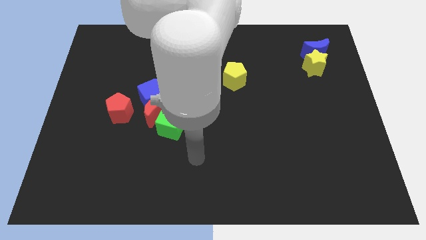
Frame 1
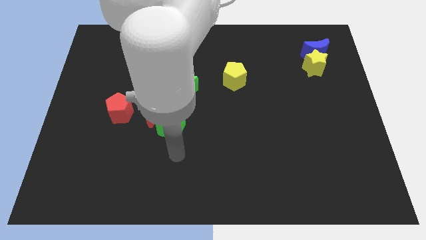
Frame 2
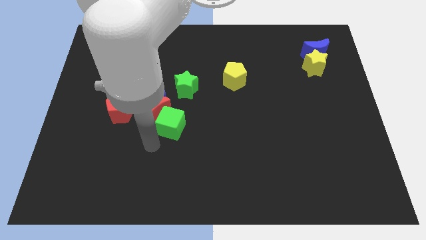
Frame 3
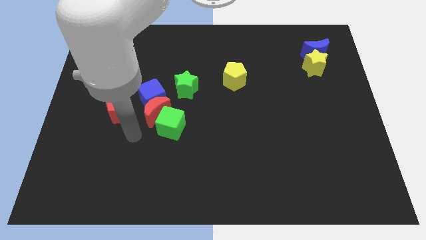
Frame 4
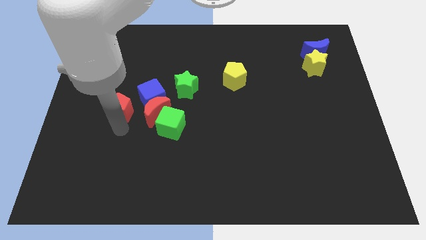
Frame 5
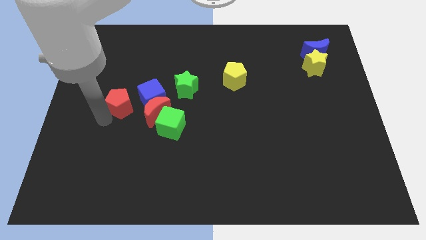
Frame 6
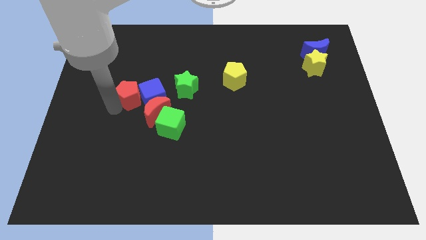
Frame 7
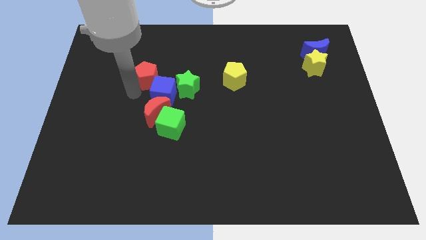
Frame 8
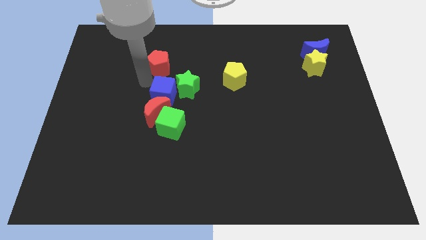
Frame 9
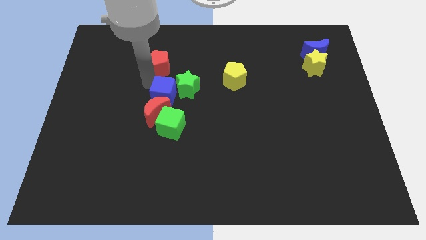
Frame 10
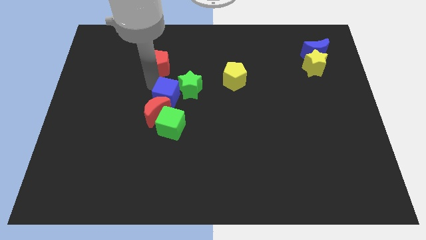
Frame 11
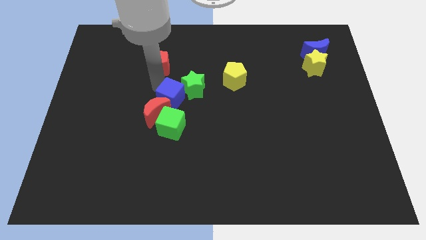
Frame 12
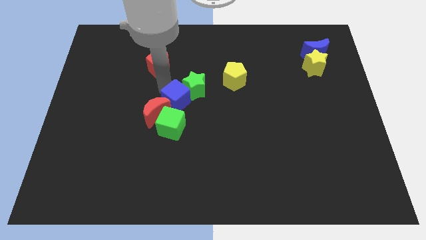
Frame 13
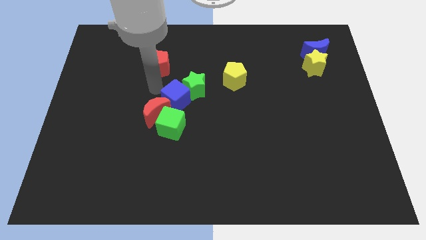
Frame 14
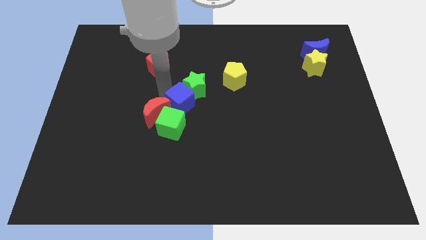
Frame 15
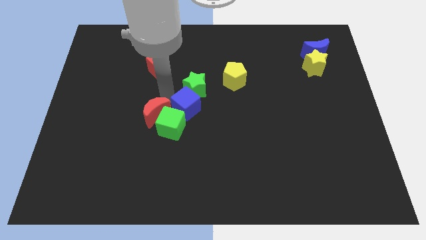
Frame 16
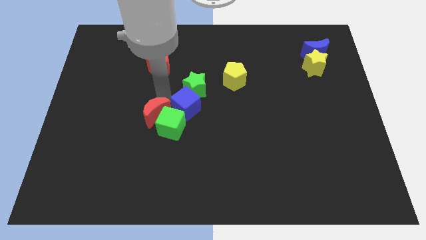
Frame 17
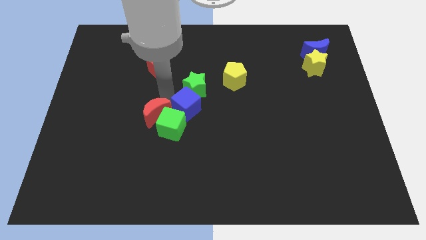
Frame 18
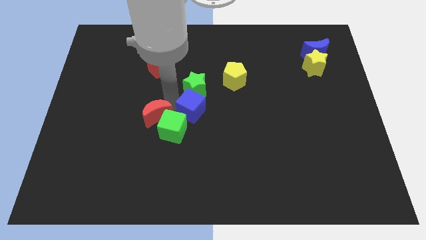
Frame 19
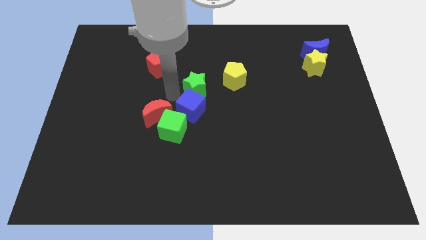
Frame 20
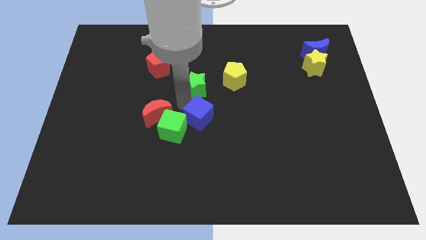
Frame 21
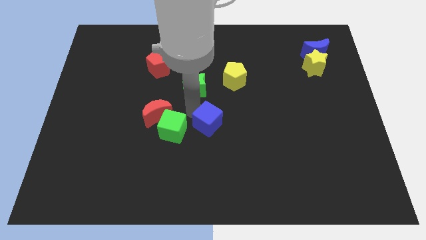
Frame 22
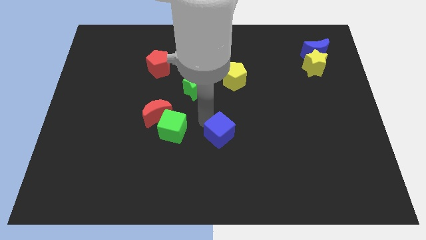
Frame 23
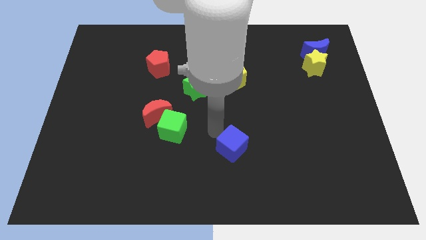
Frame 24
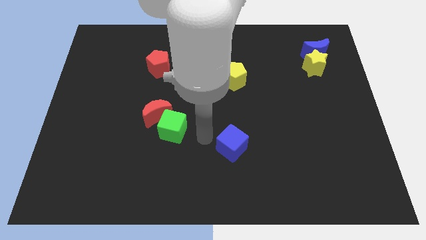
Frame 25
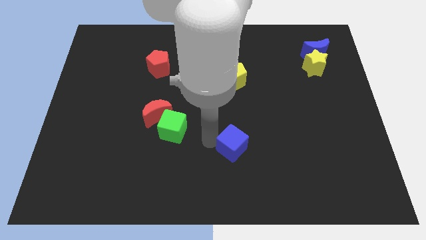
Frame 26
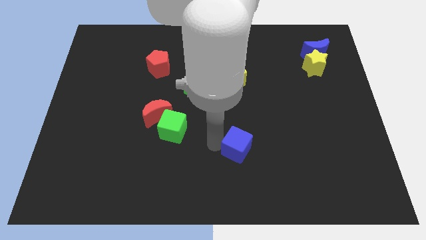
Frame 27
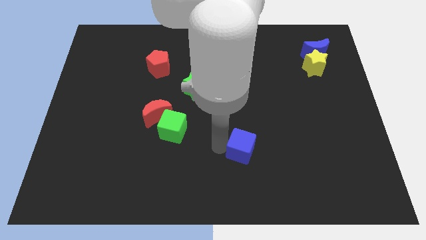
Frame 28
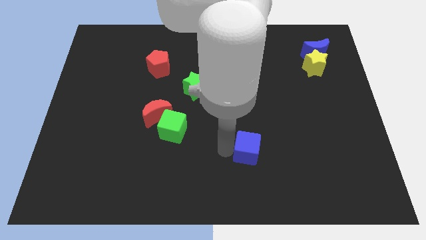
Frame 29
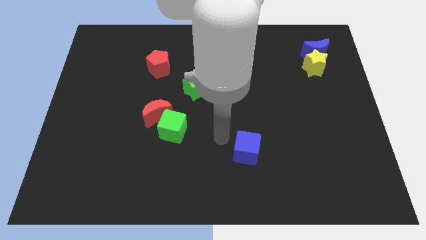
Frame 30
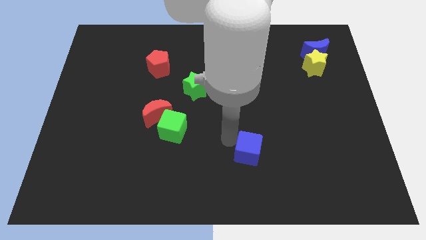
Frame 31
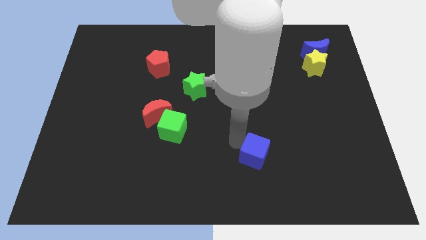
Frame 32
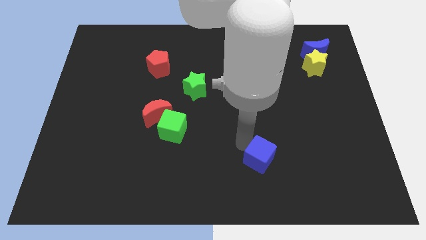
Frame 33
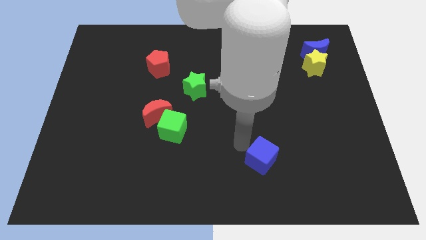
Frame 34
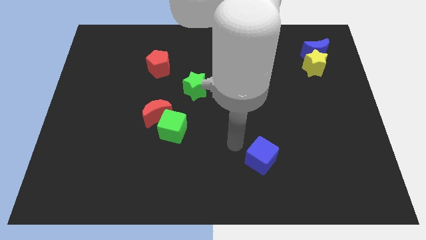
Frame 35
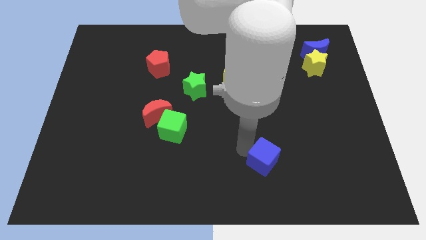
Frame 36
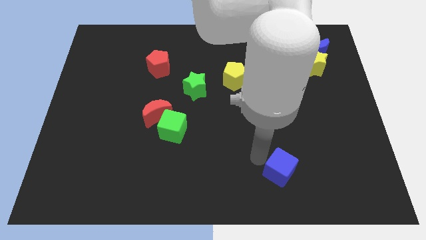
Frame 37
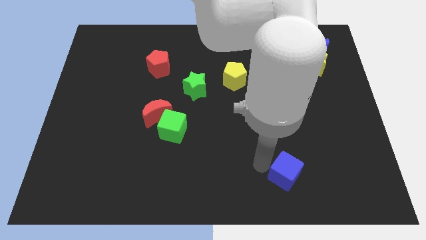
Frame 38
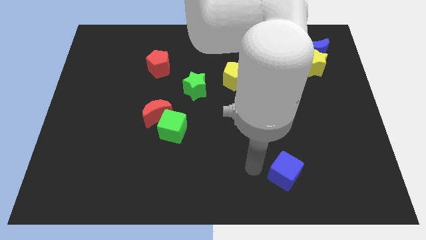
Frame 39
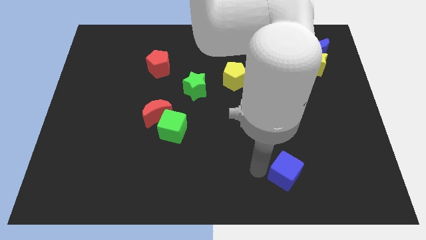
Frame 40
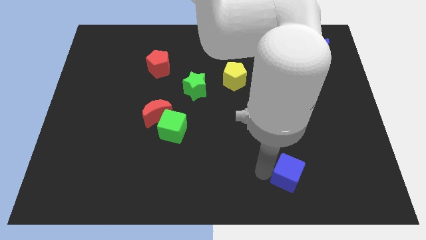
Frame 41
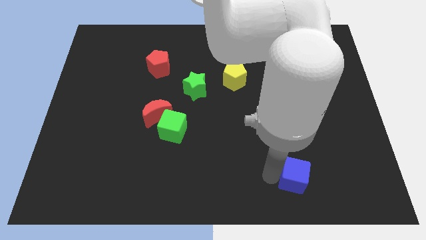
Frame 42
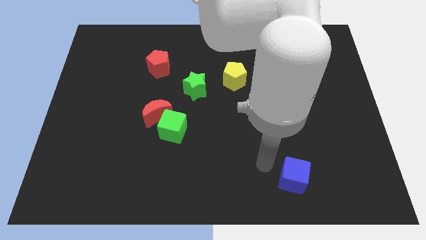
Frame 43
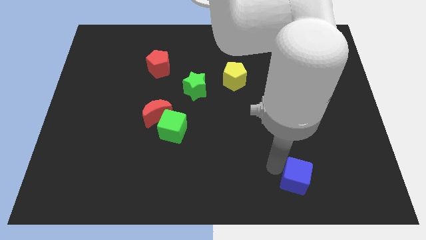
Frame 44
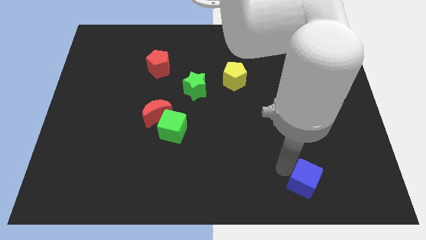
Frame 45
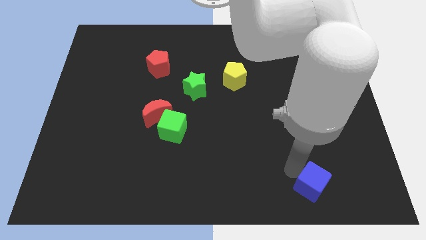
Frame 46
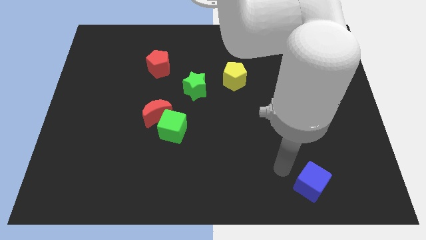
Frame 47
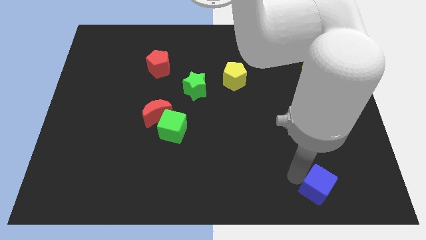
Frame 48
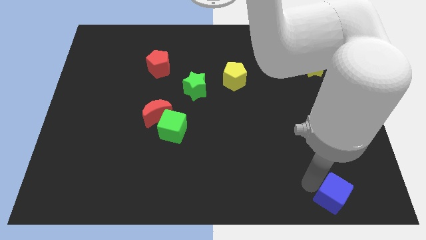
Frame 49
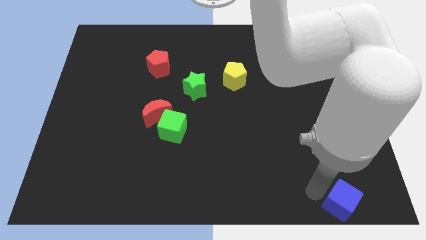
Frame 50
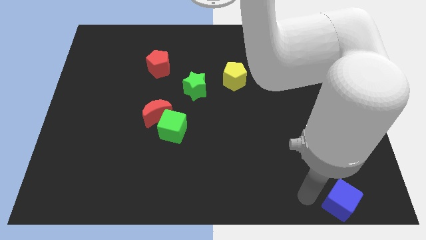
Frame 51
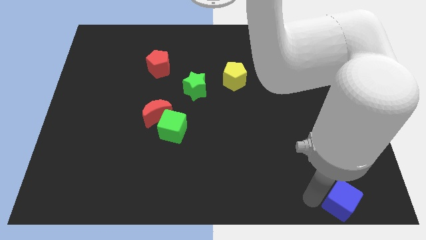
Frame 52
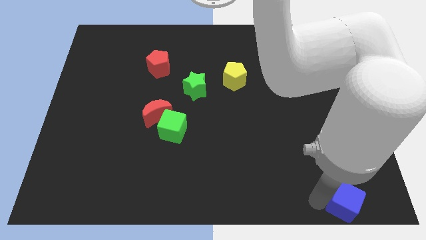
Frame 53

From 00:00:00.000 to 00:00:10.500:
put the blue cube to the bottom right corner

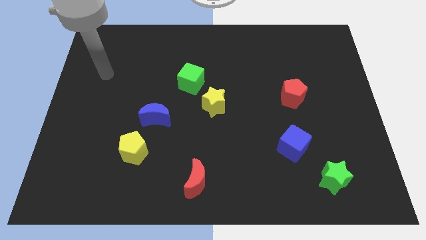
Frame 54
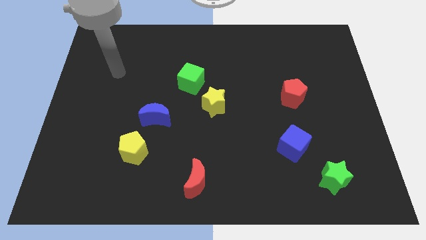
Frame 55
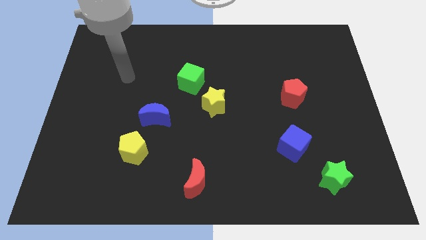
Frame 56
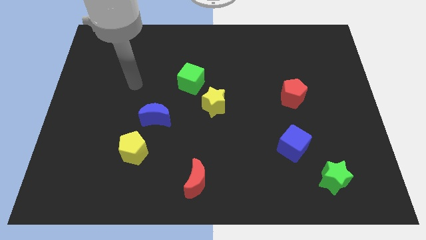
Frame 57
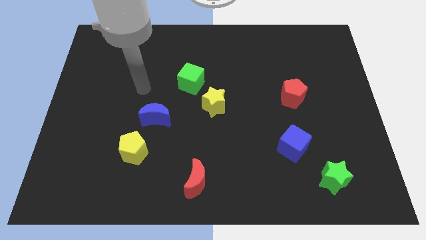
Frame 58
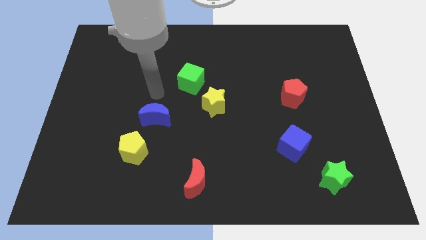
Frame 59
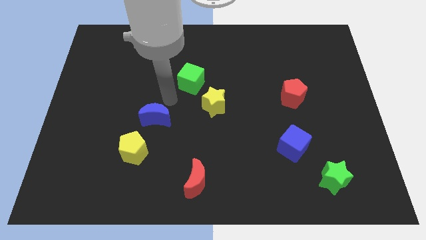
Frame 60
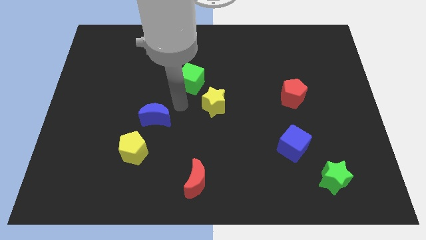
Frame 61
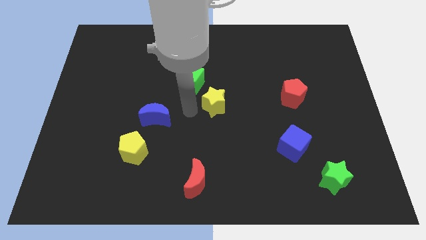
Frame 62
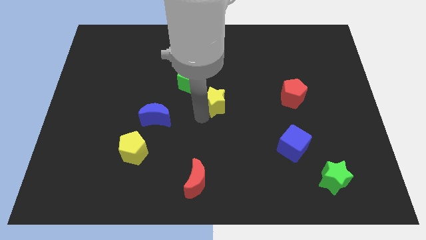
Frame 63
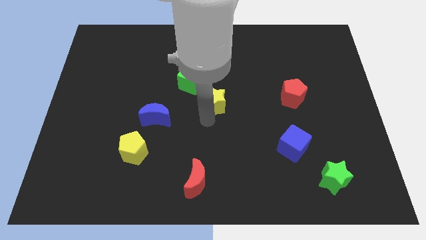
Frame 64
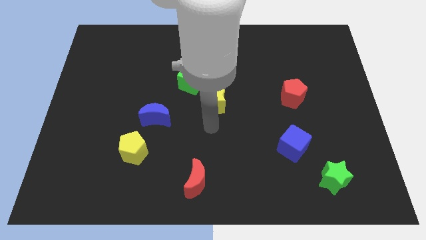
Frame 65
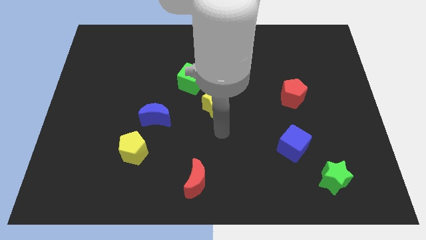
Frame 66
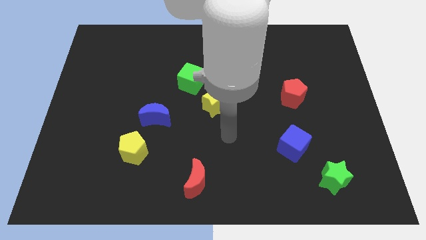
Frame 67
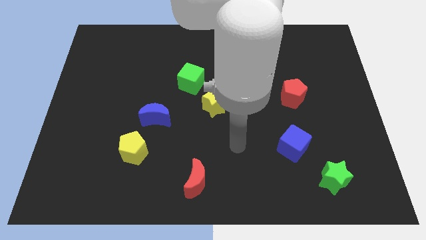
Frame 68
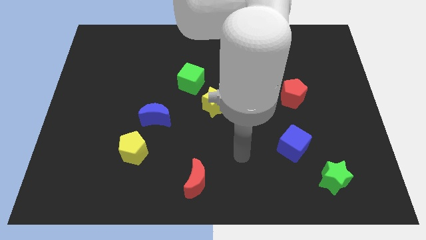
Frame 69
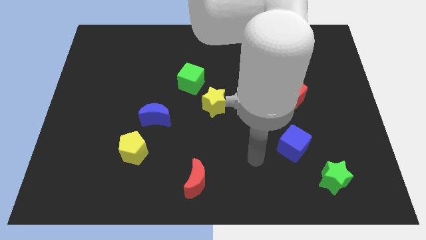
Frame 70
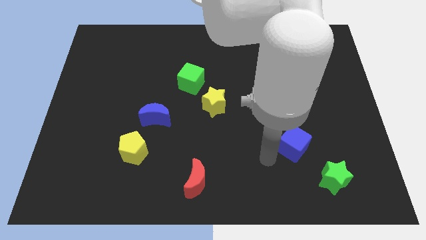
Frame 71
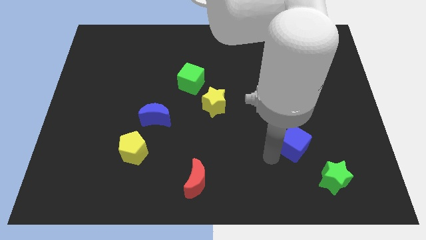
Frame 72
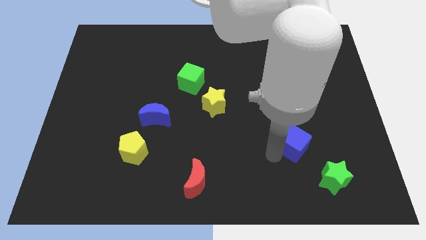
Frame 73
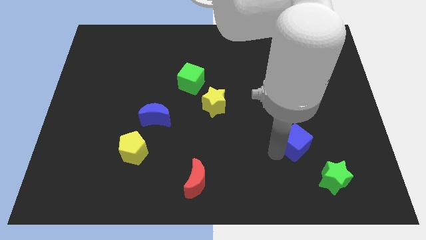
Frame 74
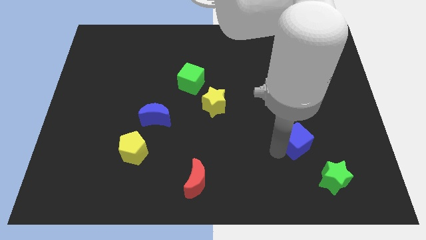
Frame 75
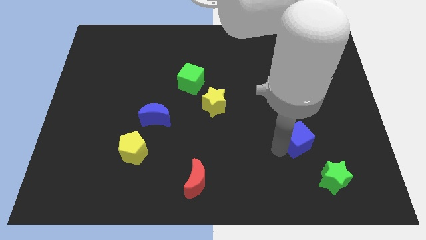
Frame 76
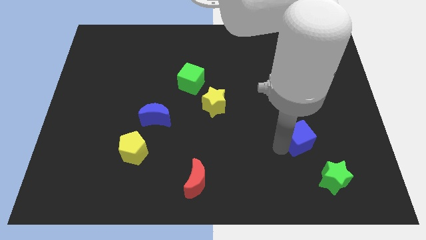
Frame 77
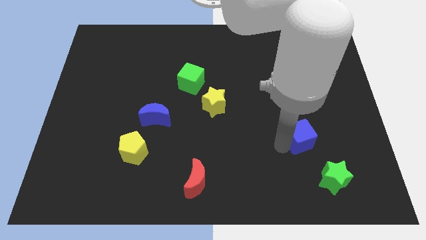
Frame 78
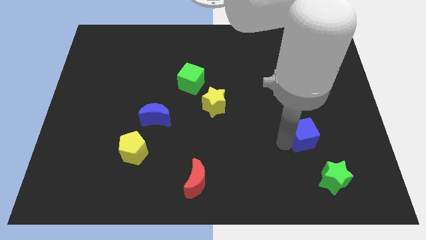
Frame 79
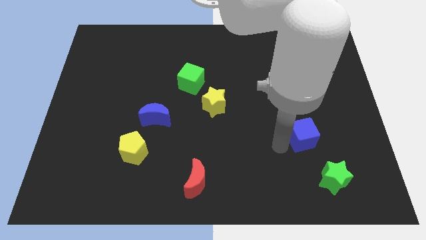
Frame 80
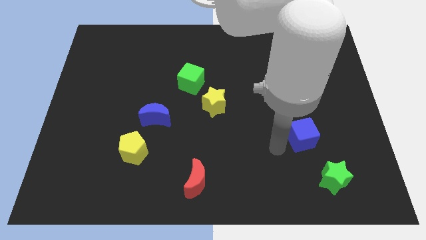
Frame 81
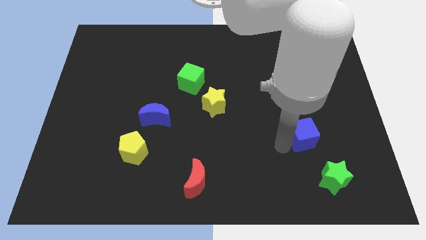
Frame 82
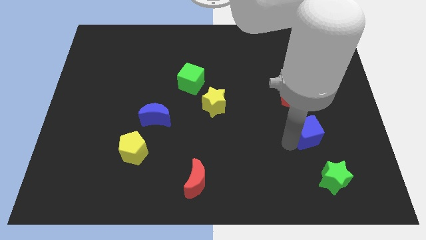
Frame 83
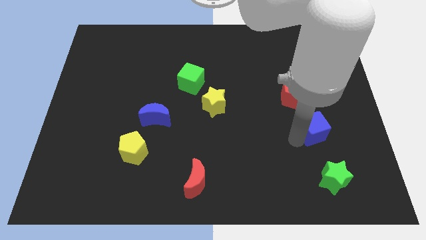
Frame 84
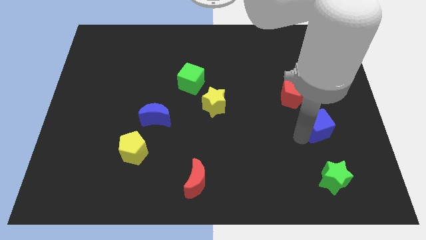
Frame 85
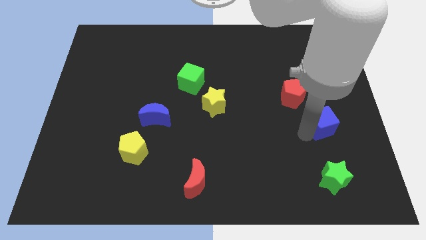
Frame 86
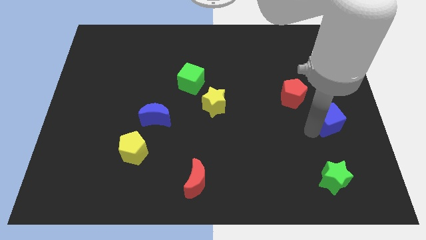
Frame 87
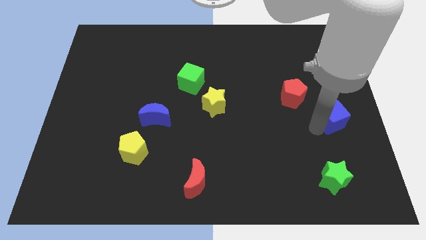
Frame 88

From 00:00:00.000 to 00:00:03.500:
move the blue cube to the right side
